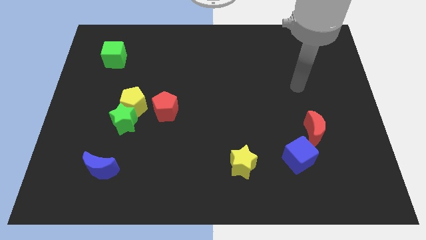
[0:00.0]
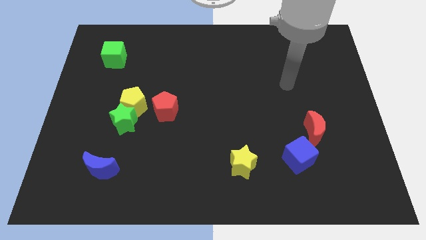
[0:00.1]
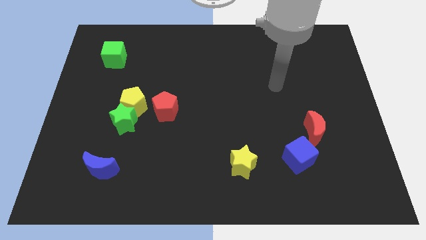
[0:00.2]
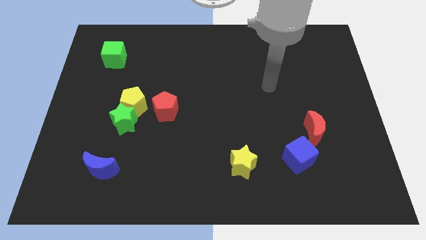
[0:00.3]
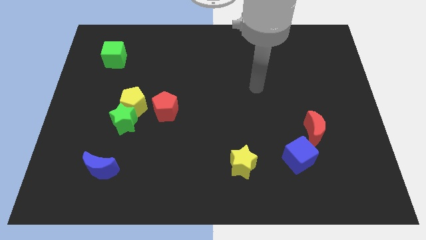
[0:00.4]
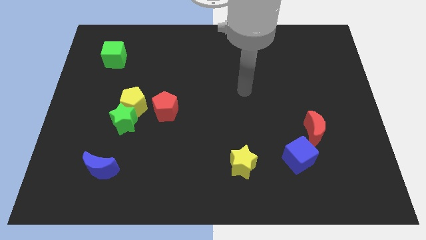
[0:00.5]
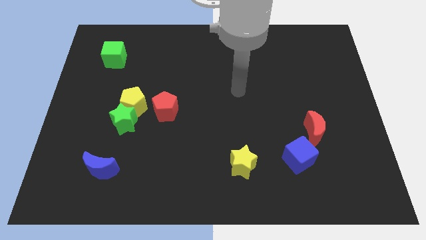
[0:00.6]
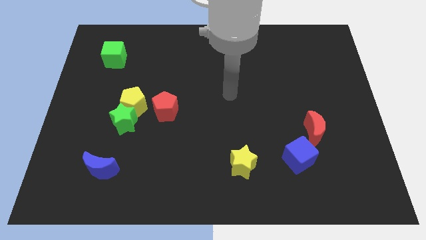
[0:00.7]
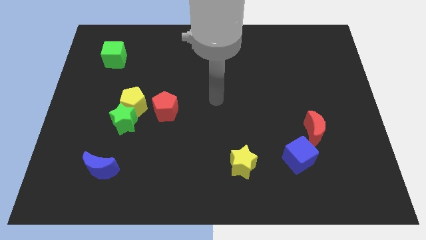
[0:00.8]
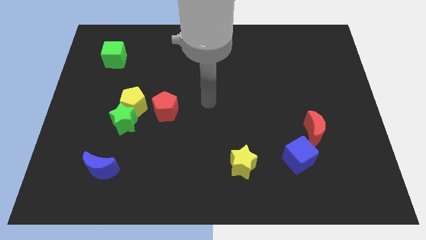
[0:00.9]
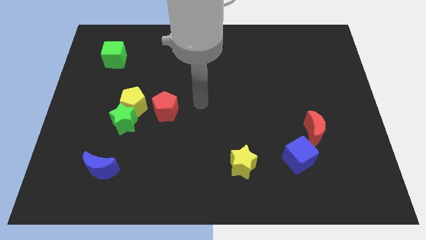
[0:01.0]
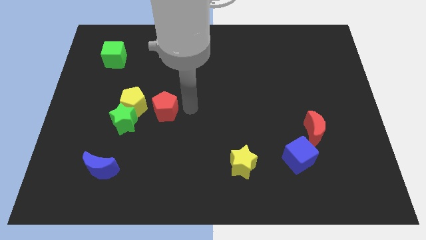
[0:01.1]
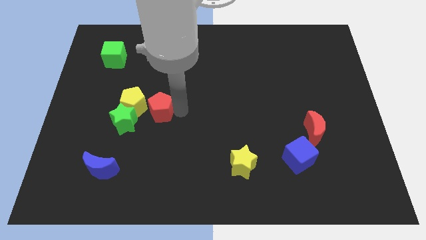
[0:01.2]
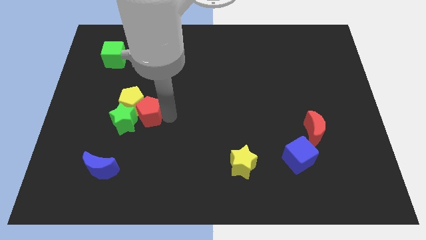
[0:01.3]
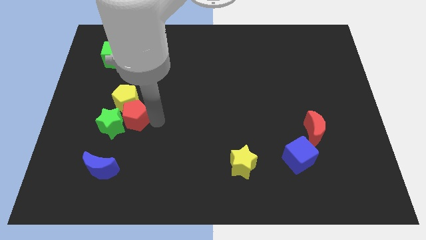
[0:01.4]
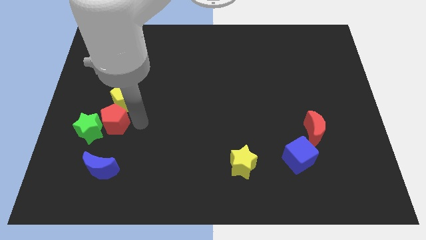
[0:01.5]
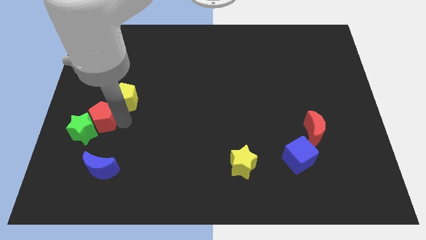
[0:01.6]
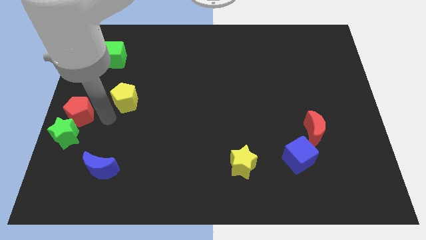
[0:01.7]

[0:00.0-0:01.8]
move the yellow pentagon away from the green star and red pentagon

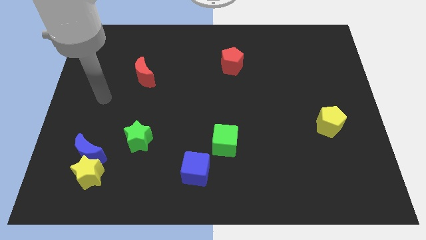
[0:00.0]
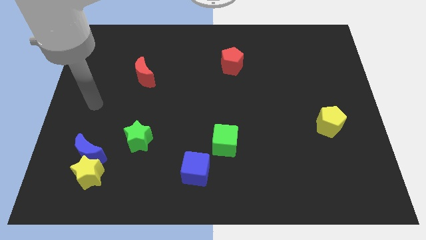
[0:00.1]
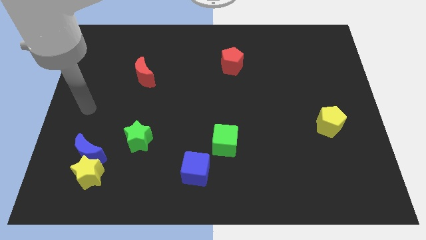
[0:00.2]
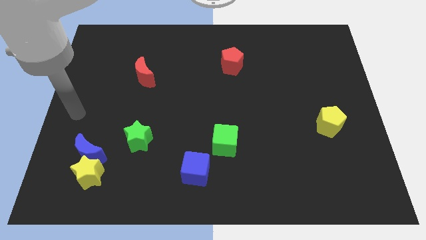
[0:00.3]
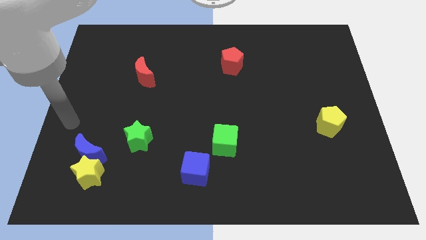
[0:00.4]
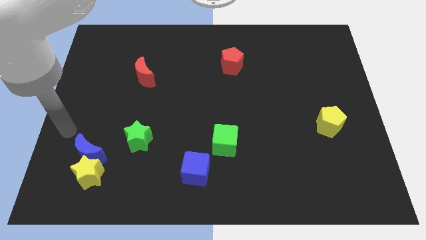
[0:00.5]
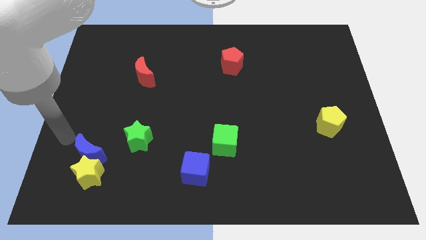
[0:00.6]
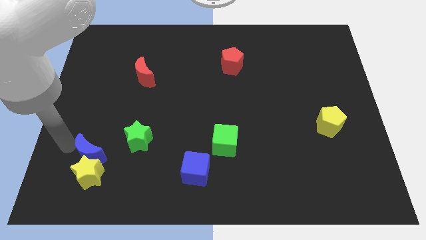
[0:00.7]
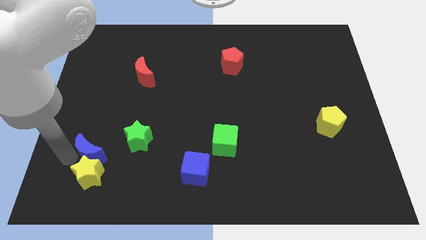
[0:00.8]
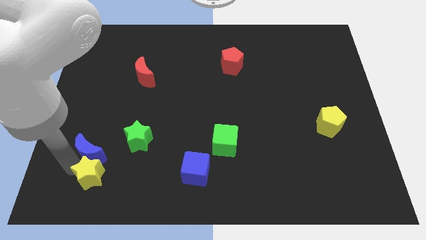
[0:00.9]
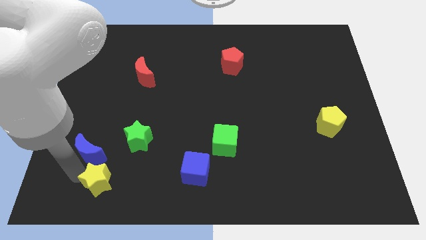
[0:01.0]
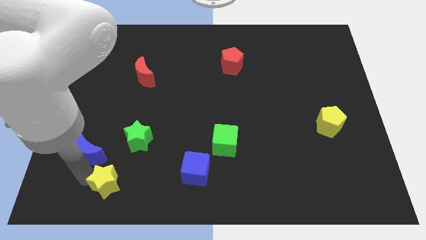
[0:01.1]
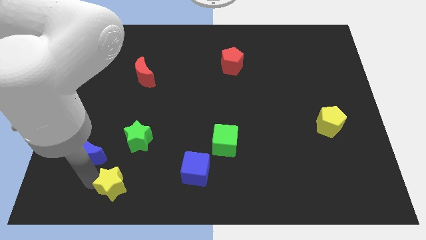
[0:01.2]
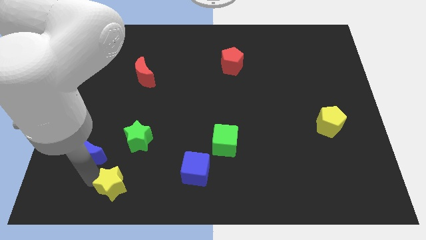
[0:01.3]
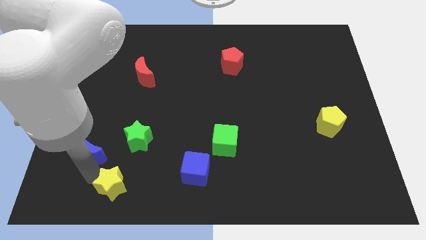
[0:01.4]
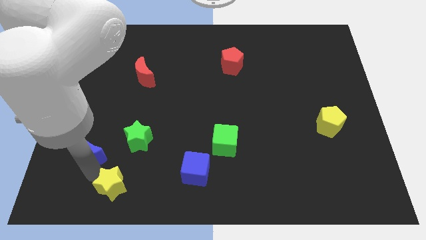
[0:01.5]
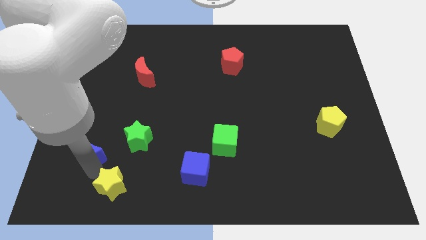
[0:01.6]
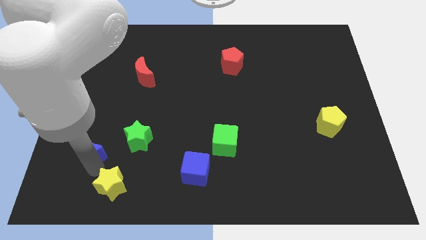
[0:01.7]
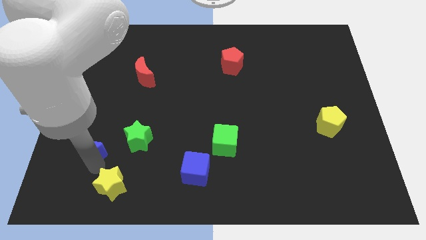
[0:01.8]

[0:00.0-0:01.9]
separate the blue moon from the yellow star

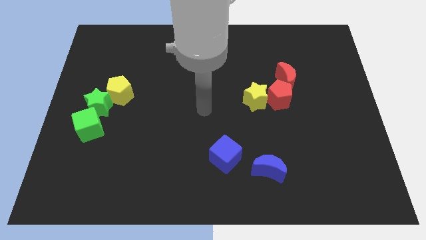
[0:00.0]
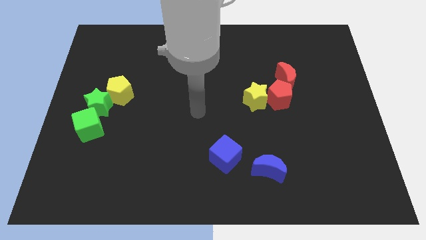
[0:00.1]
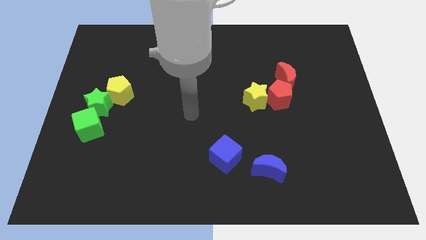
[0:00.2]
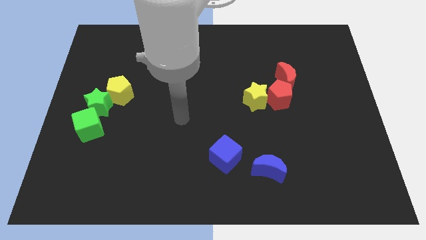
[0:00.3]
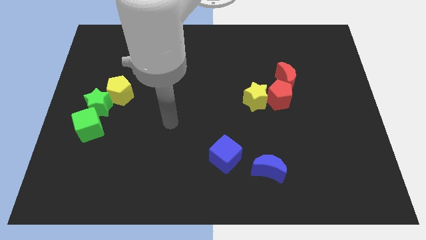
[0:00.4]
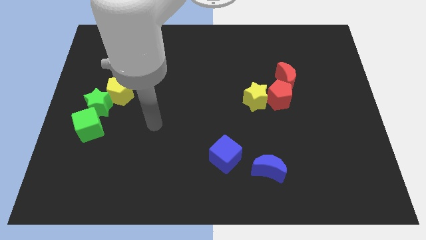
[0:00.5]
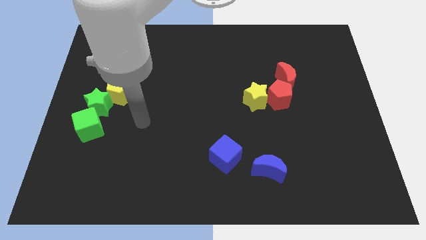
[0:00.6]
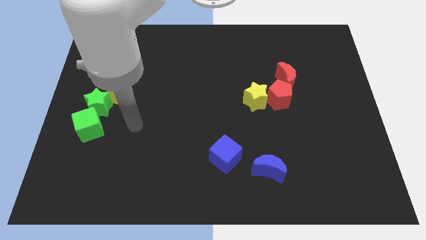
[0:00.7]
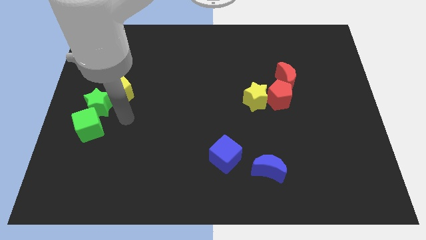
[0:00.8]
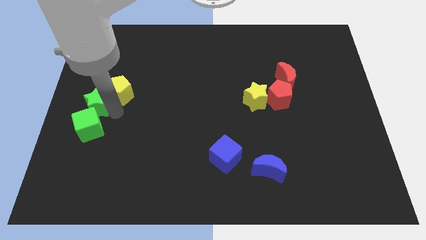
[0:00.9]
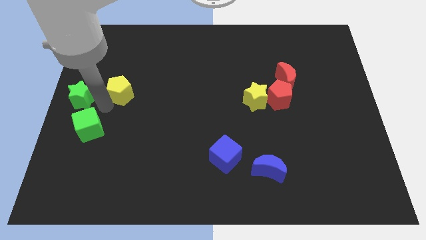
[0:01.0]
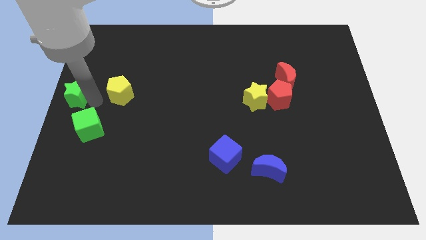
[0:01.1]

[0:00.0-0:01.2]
separate the yellow pentagon from the green star

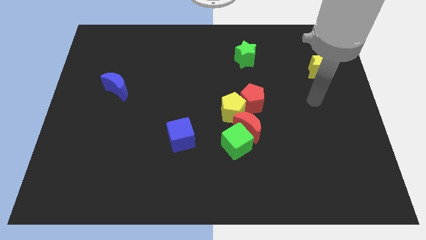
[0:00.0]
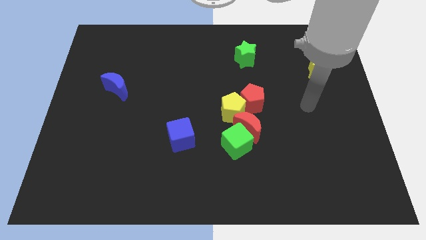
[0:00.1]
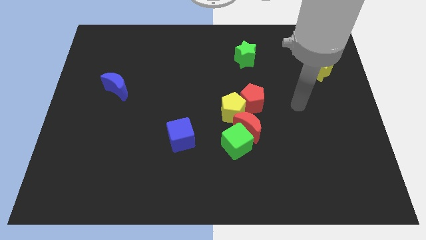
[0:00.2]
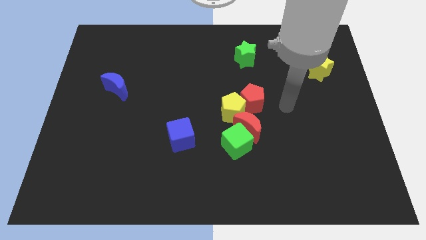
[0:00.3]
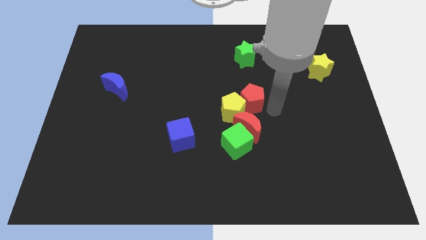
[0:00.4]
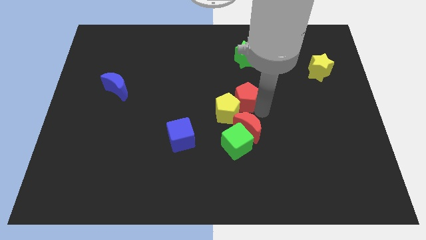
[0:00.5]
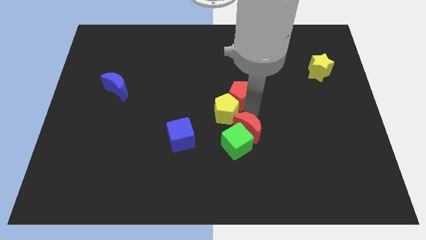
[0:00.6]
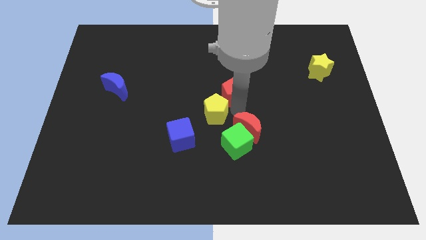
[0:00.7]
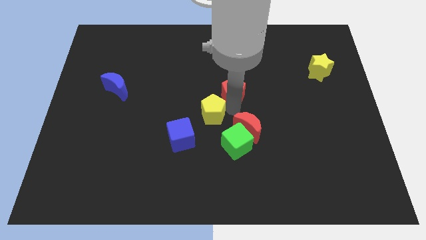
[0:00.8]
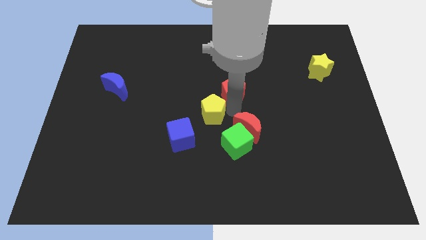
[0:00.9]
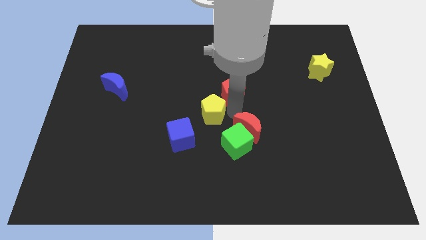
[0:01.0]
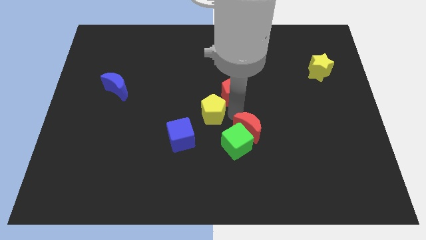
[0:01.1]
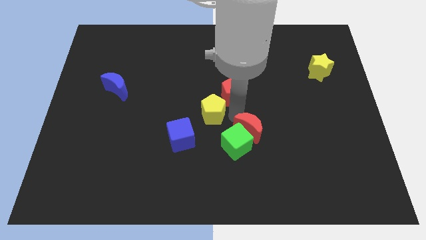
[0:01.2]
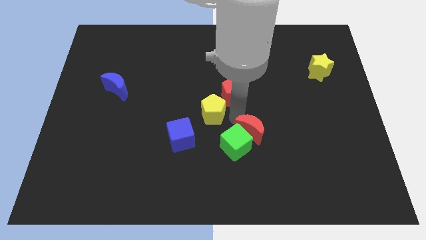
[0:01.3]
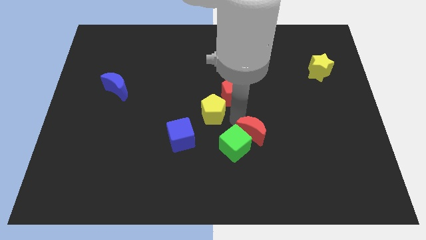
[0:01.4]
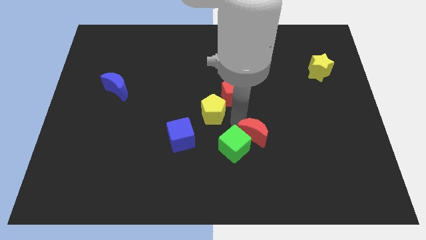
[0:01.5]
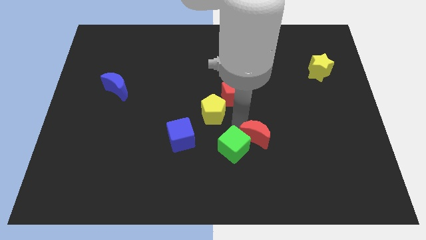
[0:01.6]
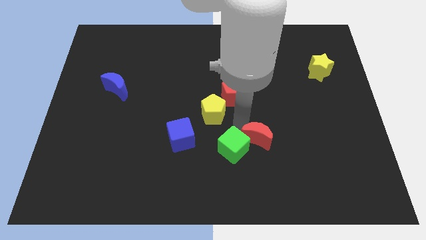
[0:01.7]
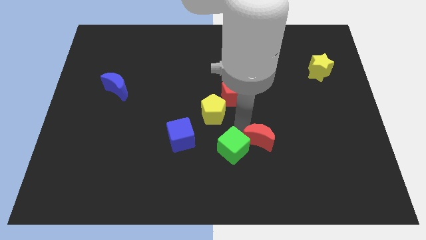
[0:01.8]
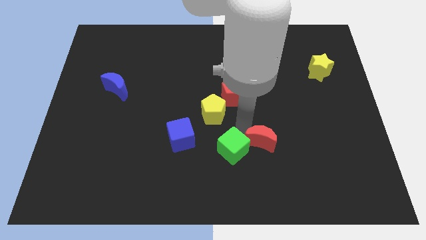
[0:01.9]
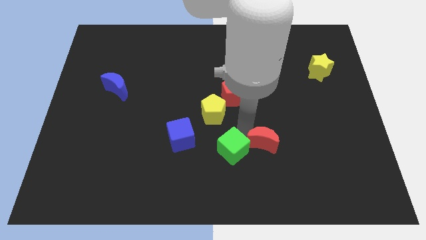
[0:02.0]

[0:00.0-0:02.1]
pull the red moon apart from the group

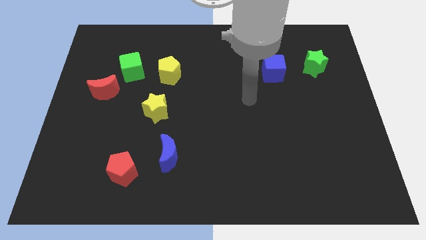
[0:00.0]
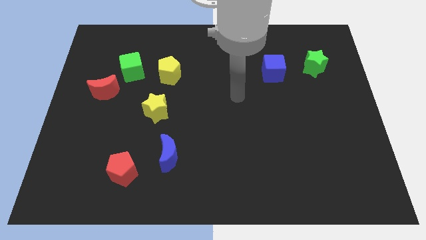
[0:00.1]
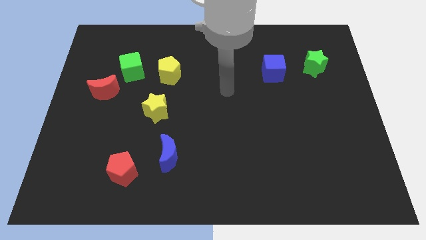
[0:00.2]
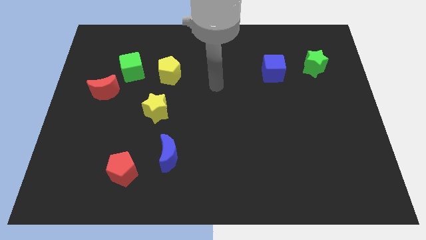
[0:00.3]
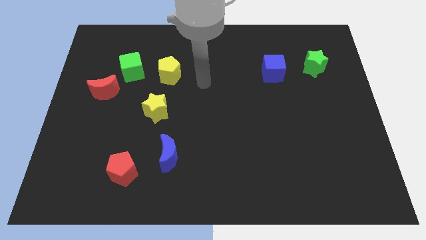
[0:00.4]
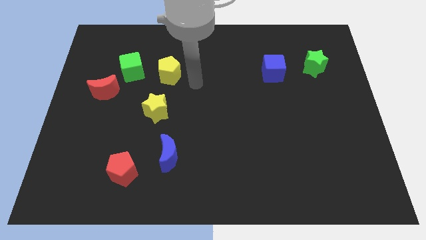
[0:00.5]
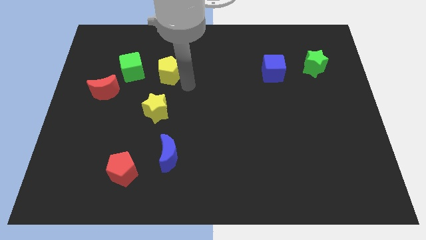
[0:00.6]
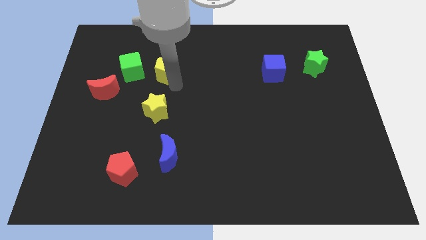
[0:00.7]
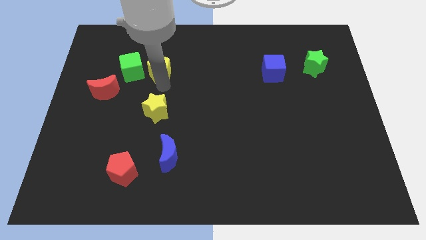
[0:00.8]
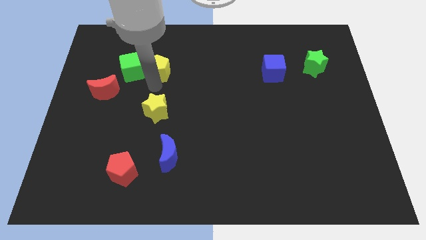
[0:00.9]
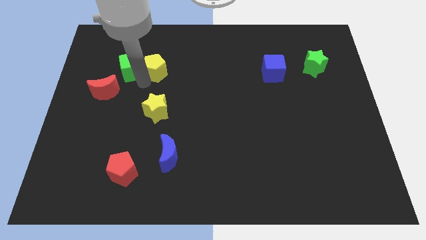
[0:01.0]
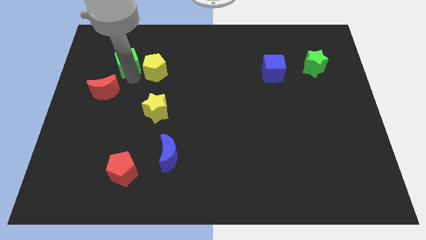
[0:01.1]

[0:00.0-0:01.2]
move the red moon away from the green cube

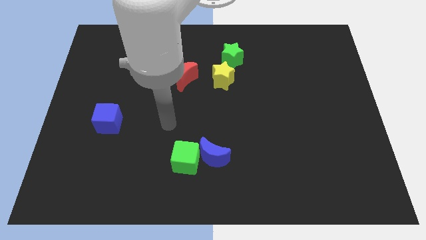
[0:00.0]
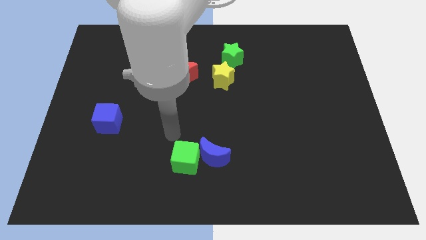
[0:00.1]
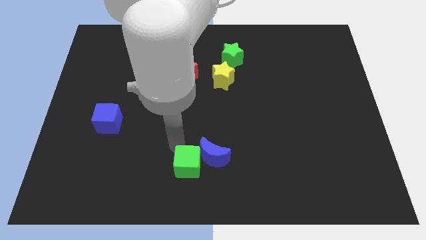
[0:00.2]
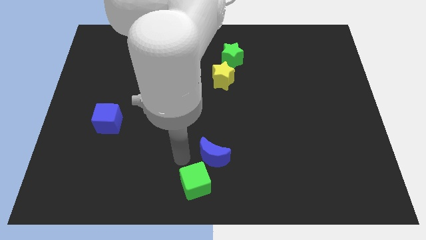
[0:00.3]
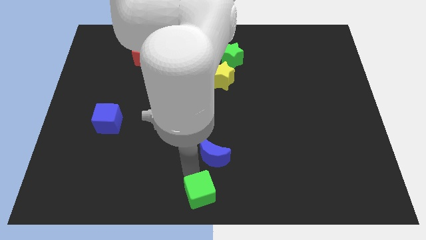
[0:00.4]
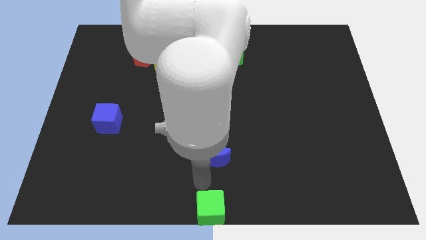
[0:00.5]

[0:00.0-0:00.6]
separate the blue moon from the green cube

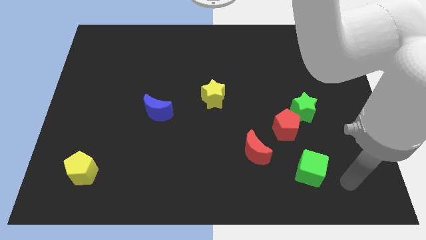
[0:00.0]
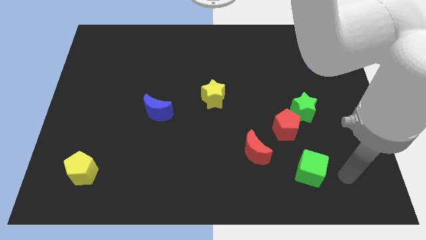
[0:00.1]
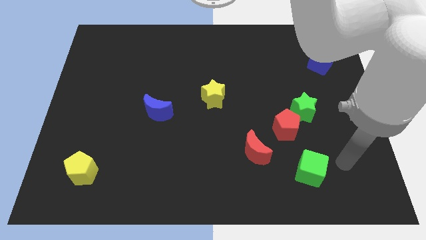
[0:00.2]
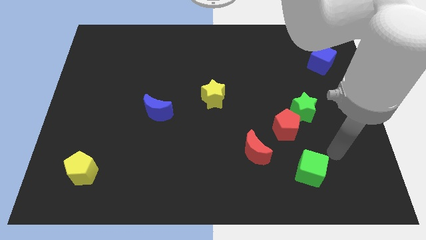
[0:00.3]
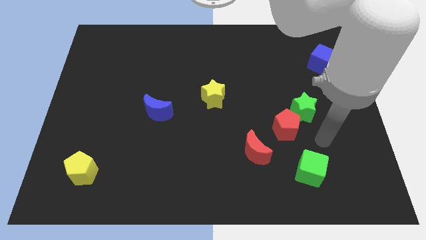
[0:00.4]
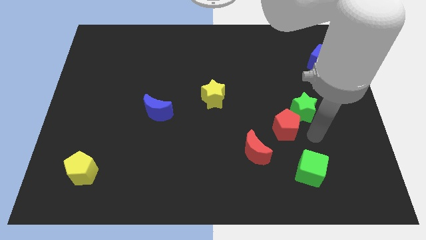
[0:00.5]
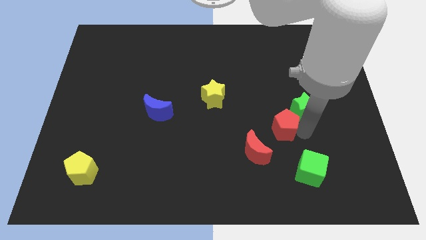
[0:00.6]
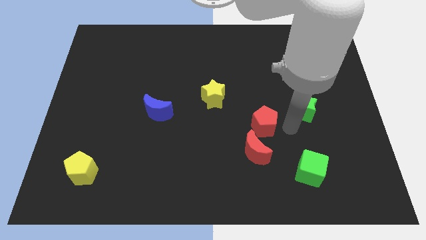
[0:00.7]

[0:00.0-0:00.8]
pull the green star apart from the red pentagon
